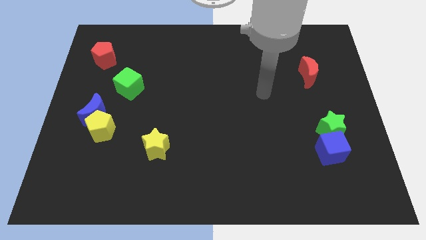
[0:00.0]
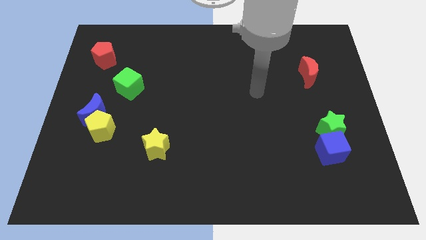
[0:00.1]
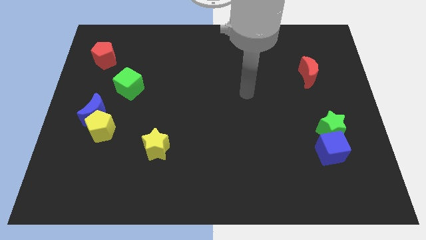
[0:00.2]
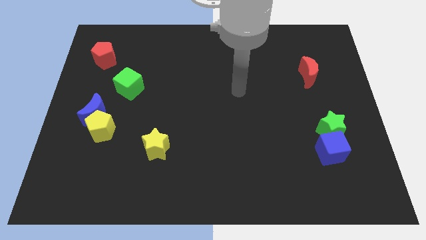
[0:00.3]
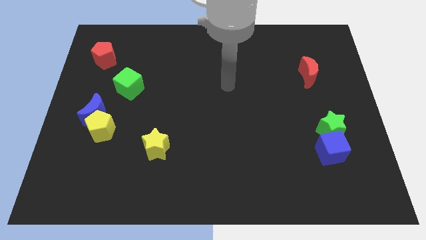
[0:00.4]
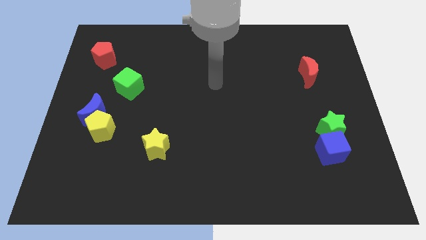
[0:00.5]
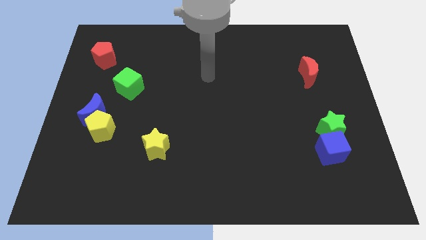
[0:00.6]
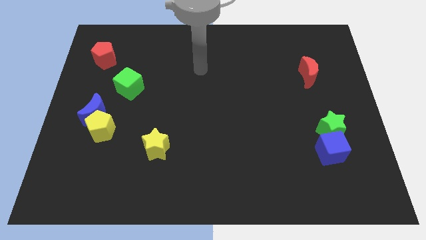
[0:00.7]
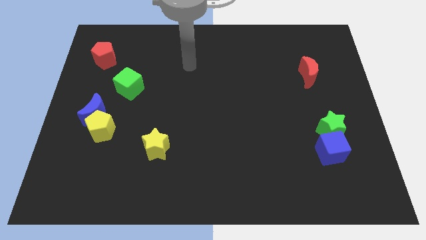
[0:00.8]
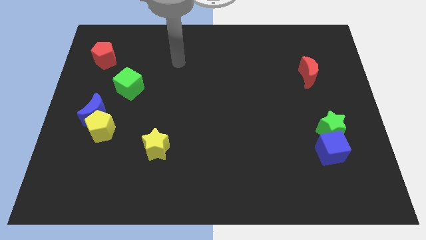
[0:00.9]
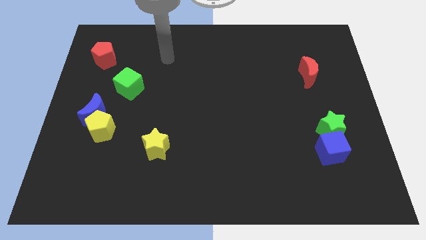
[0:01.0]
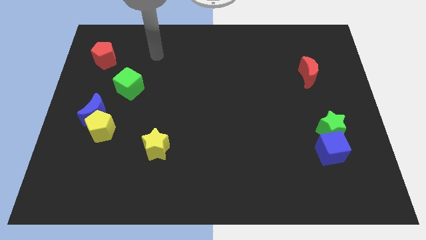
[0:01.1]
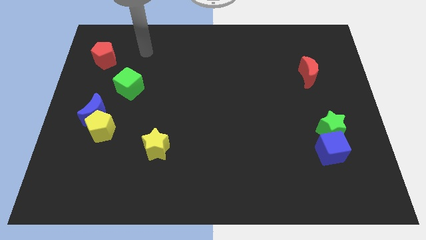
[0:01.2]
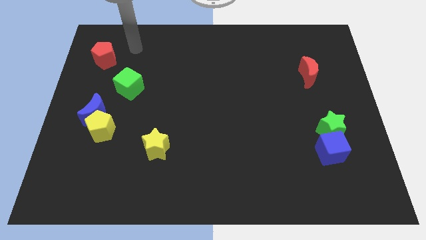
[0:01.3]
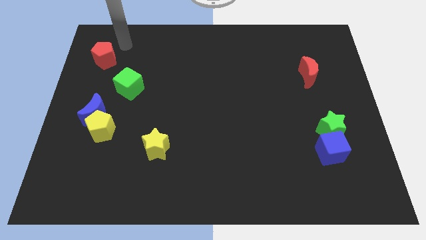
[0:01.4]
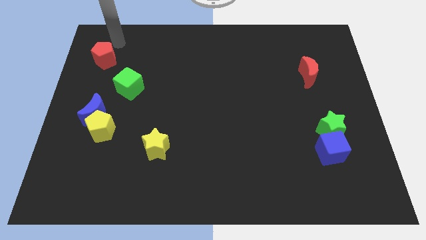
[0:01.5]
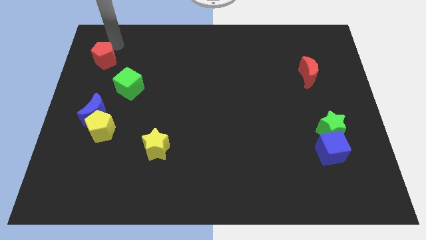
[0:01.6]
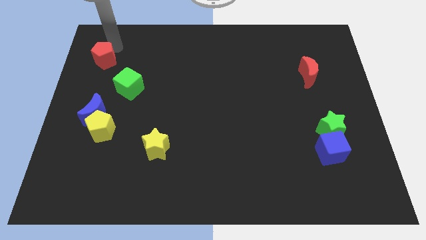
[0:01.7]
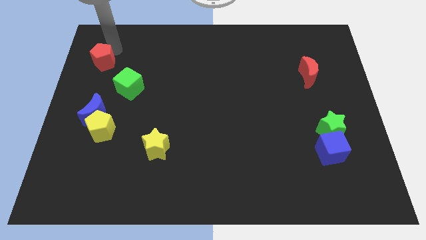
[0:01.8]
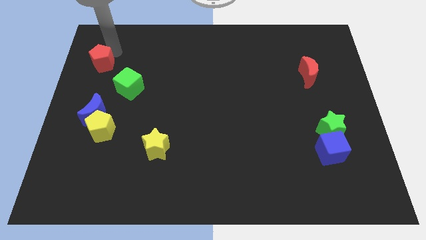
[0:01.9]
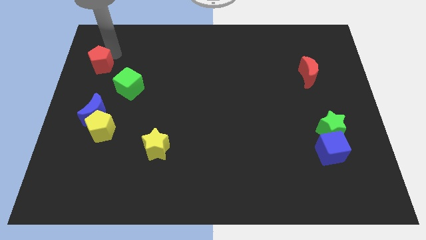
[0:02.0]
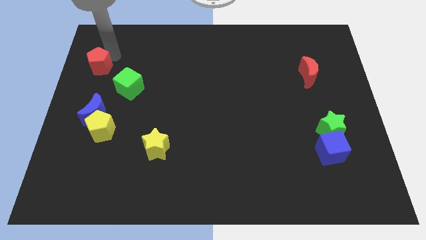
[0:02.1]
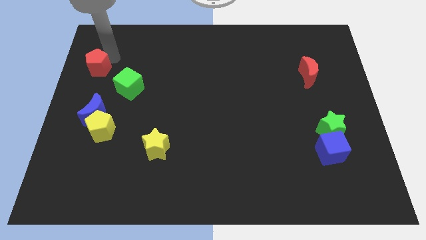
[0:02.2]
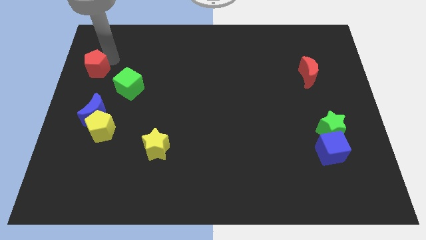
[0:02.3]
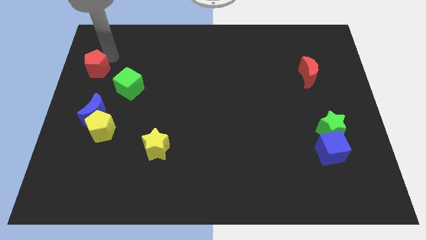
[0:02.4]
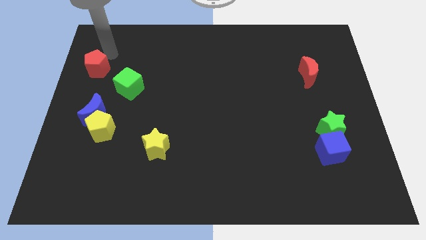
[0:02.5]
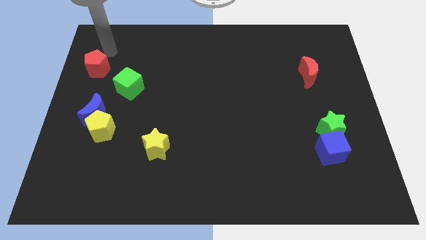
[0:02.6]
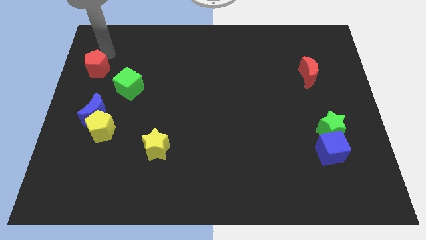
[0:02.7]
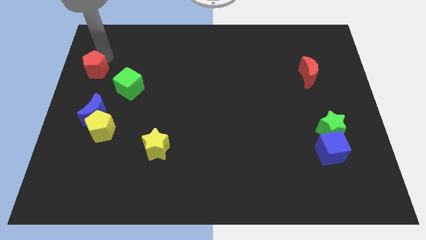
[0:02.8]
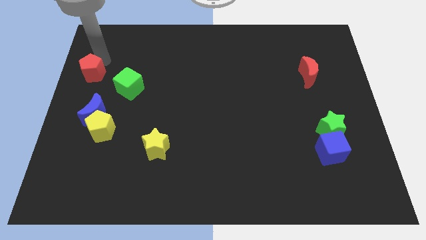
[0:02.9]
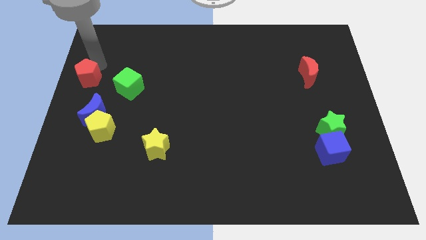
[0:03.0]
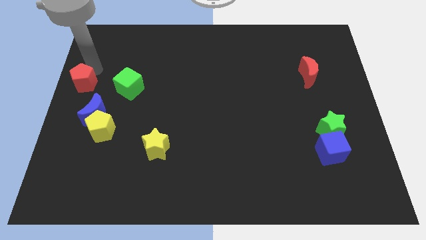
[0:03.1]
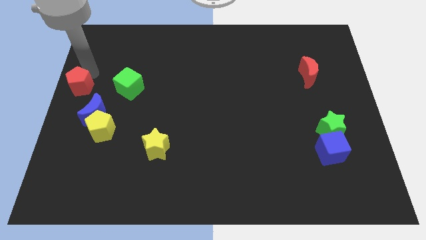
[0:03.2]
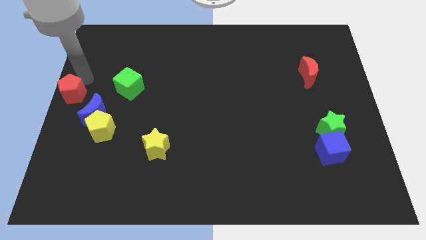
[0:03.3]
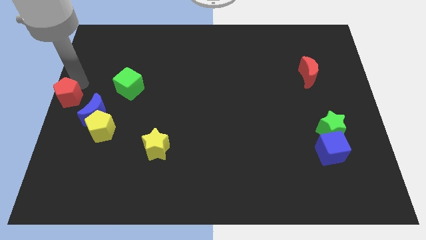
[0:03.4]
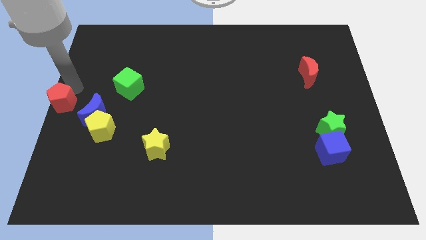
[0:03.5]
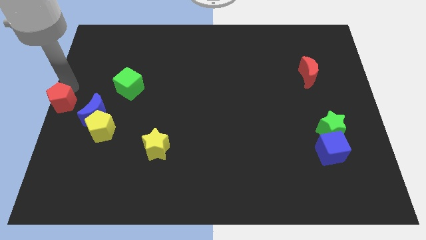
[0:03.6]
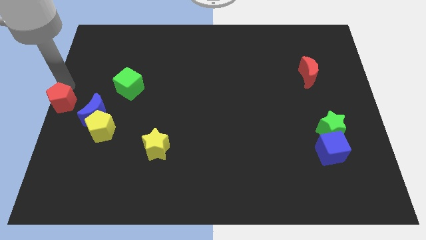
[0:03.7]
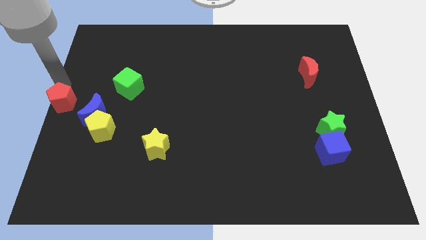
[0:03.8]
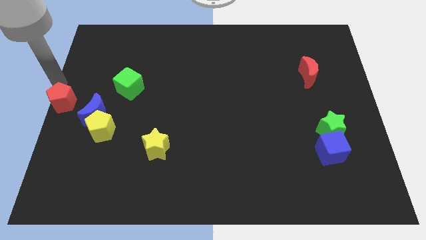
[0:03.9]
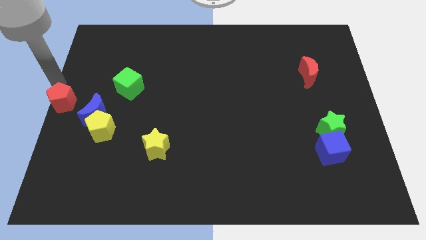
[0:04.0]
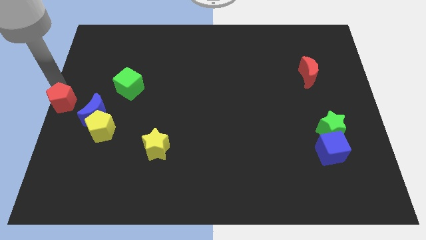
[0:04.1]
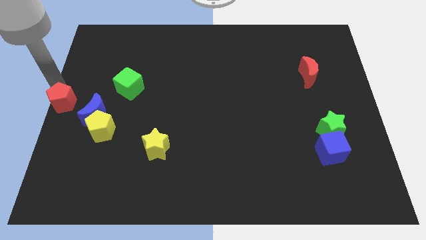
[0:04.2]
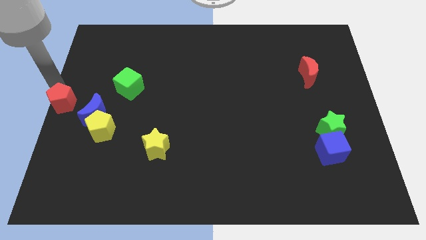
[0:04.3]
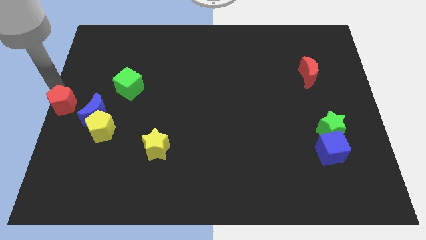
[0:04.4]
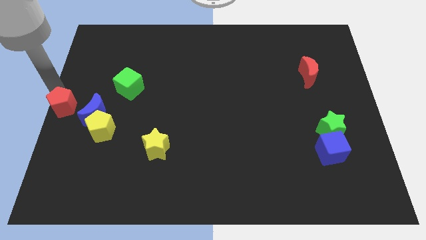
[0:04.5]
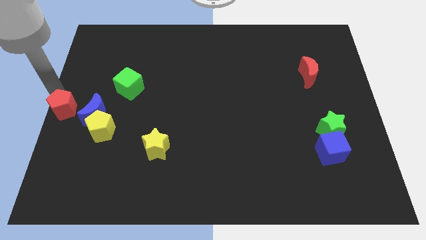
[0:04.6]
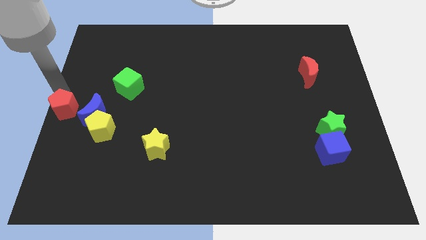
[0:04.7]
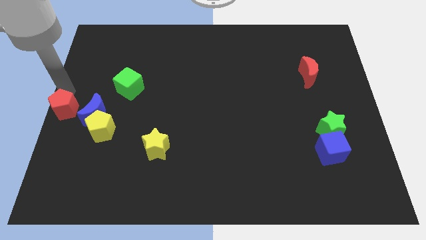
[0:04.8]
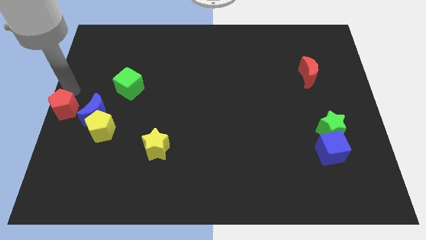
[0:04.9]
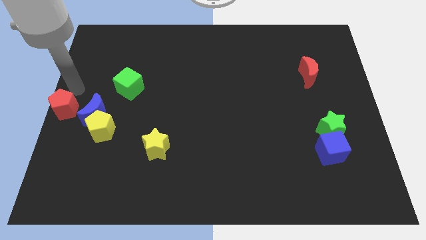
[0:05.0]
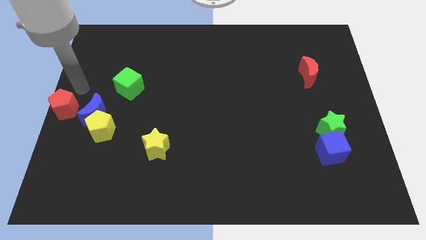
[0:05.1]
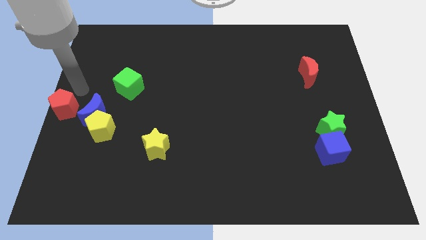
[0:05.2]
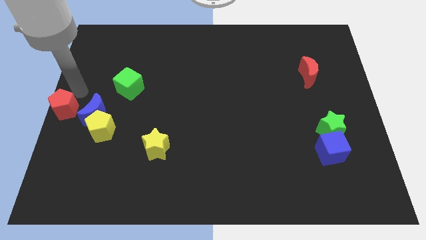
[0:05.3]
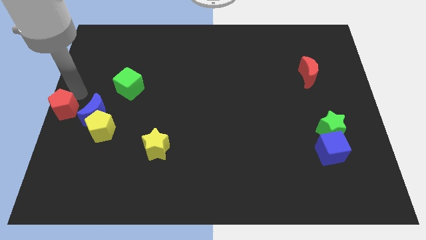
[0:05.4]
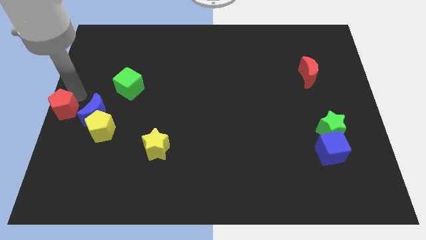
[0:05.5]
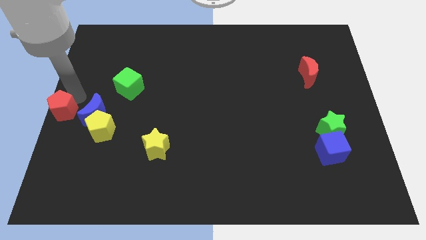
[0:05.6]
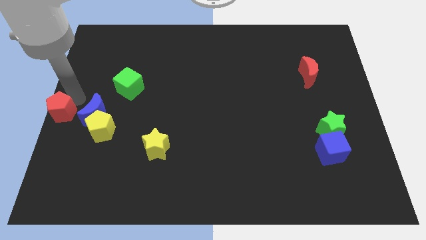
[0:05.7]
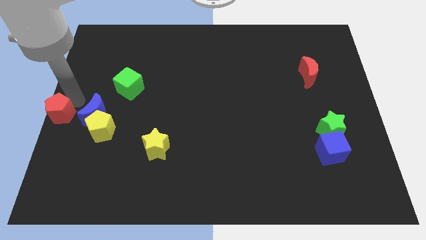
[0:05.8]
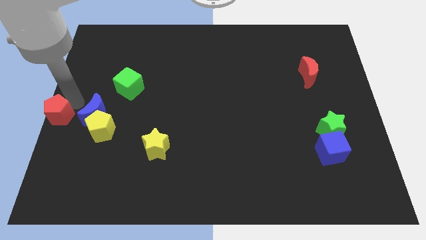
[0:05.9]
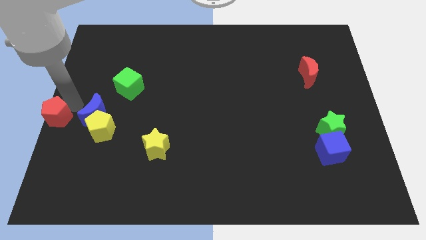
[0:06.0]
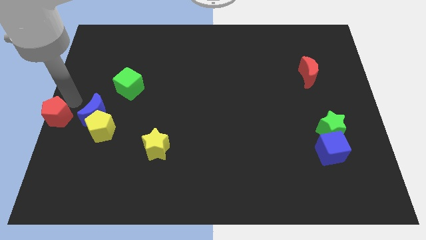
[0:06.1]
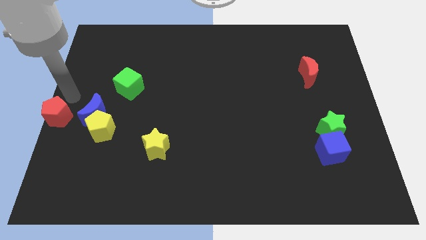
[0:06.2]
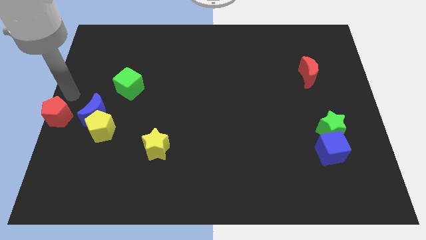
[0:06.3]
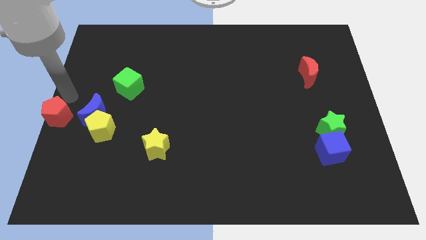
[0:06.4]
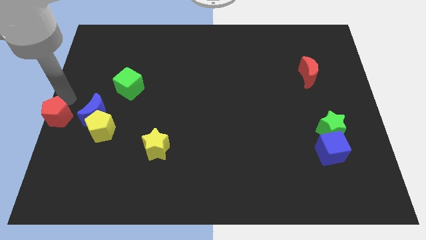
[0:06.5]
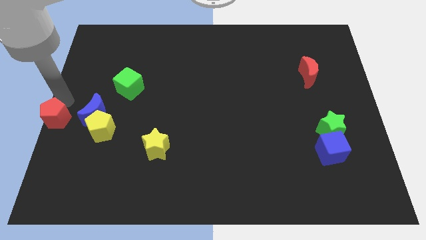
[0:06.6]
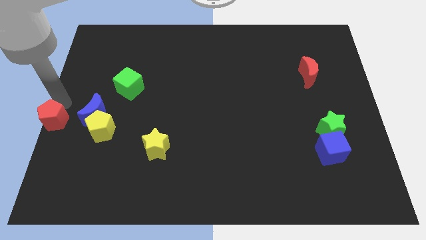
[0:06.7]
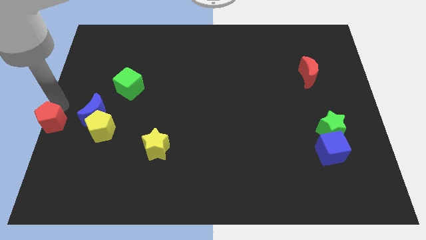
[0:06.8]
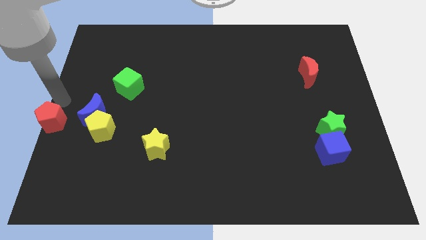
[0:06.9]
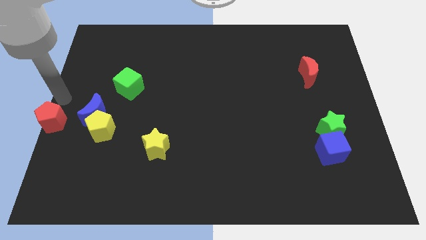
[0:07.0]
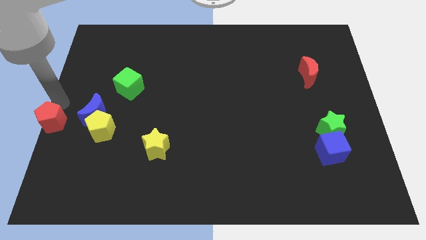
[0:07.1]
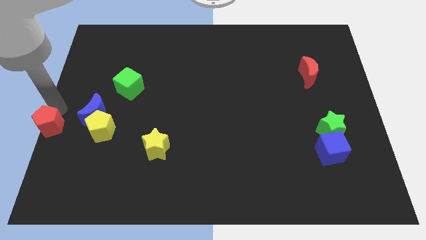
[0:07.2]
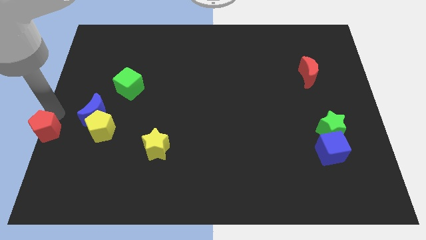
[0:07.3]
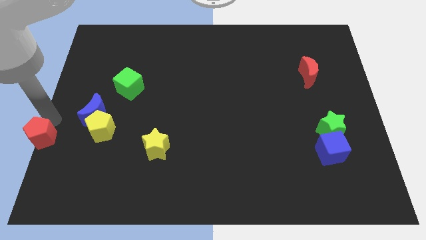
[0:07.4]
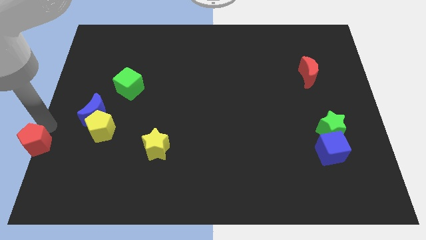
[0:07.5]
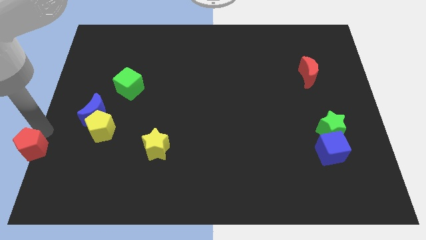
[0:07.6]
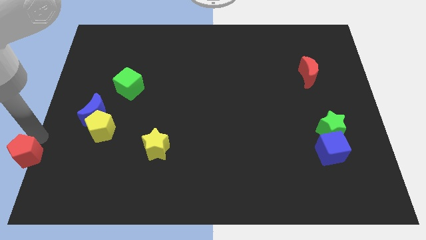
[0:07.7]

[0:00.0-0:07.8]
put the red pentagon to the bottom left of the board
